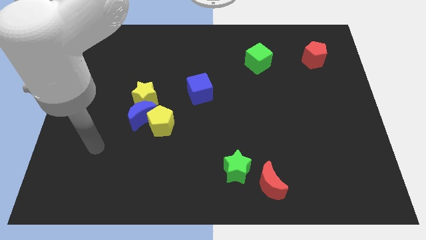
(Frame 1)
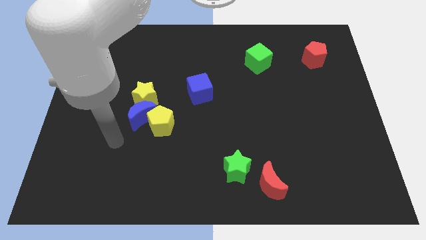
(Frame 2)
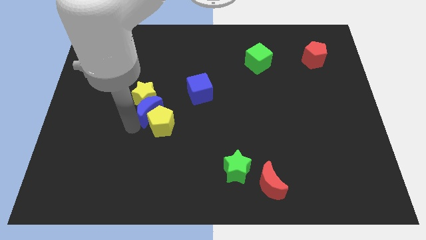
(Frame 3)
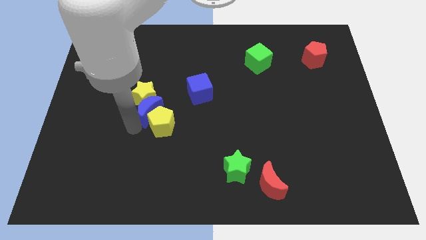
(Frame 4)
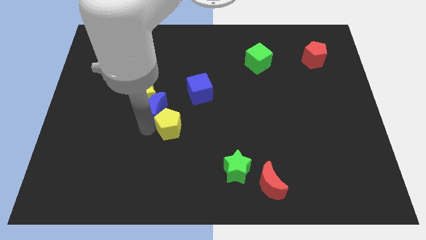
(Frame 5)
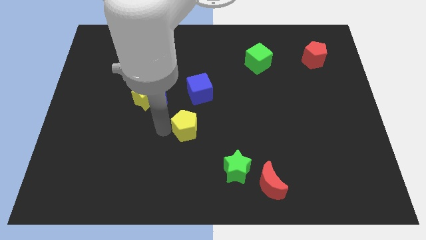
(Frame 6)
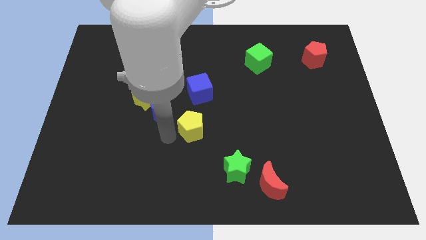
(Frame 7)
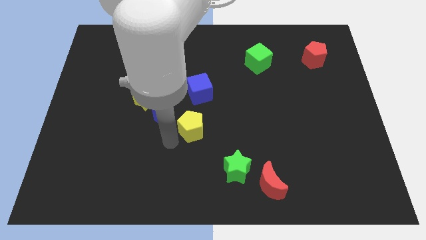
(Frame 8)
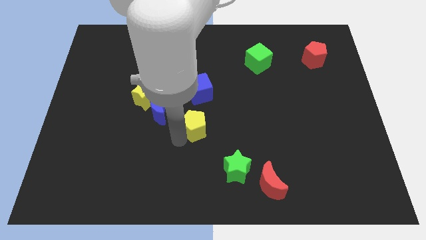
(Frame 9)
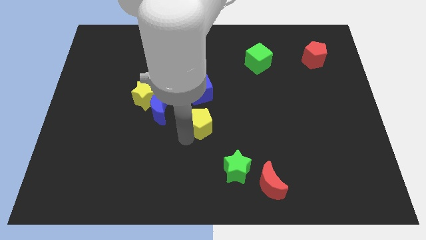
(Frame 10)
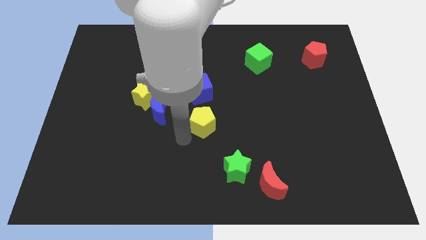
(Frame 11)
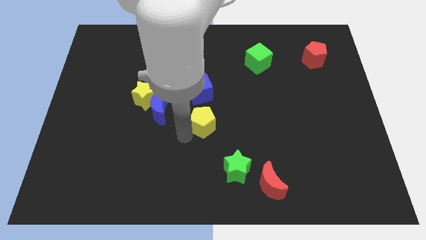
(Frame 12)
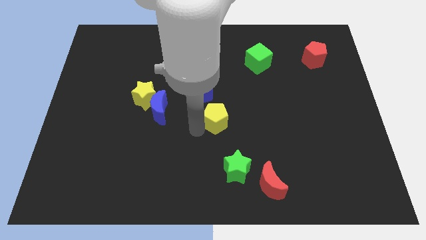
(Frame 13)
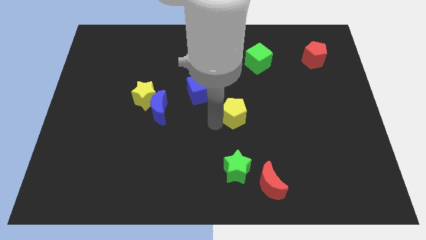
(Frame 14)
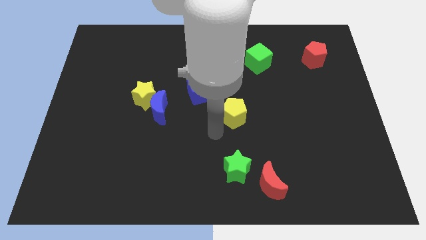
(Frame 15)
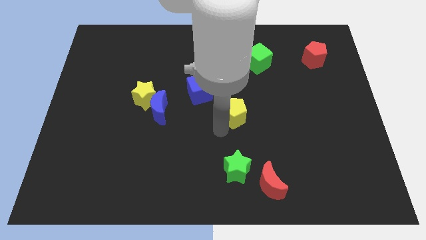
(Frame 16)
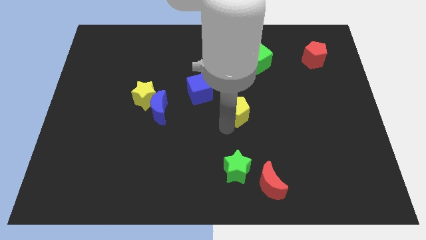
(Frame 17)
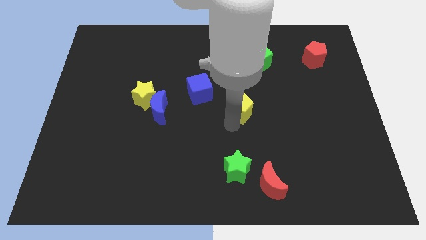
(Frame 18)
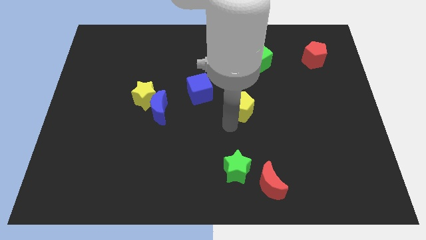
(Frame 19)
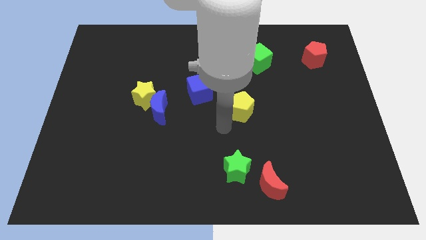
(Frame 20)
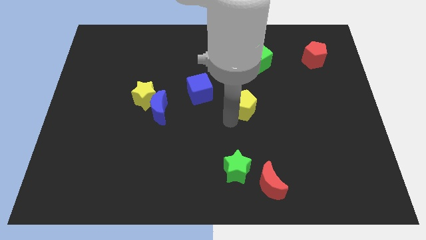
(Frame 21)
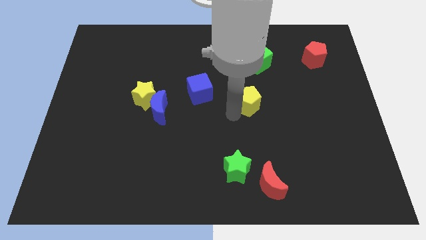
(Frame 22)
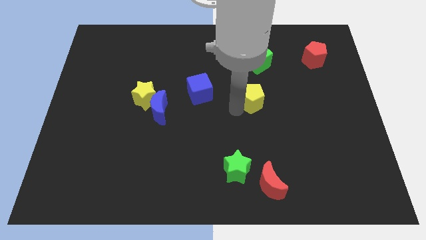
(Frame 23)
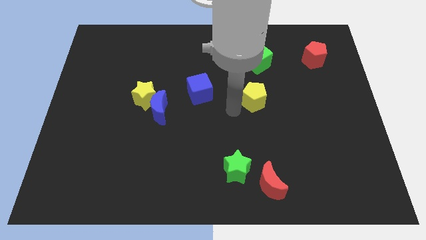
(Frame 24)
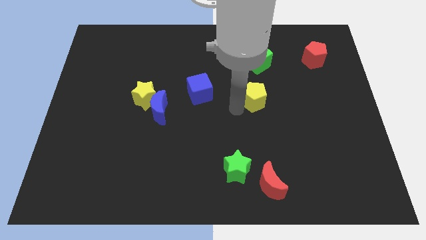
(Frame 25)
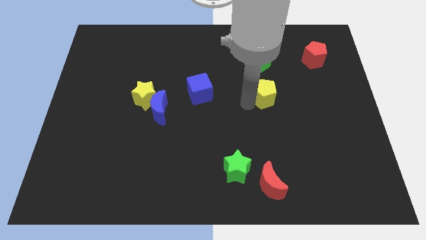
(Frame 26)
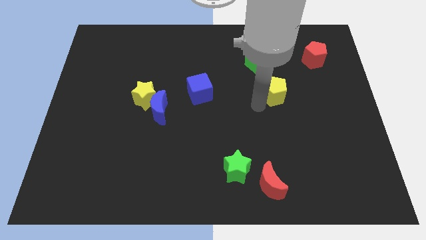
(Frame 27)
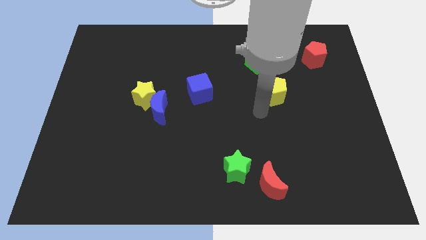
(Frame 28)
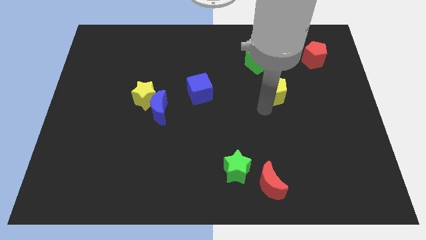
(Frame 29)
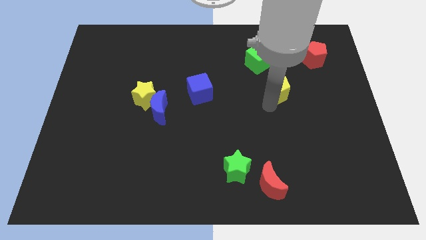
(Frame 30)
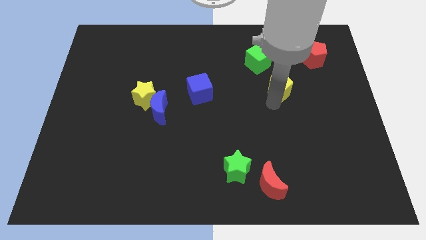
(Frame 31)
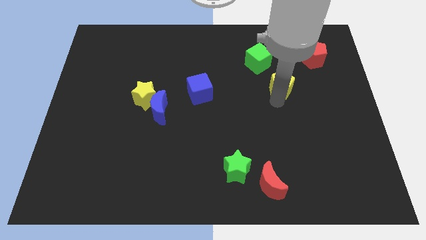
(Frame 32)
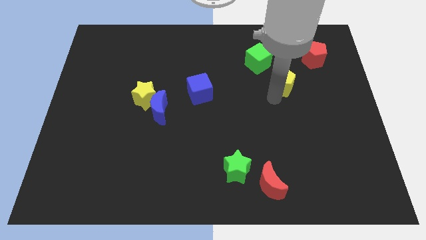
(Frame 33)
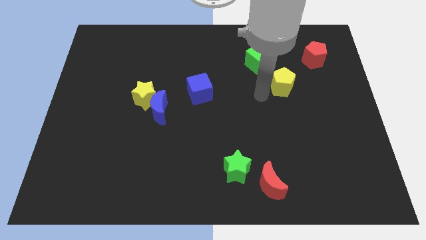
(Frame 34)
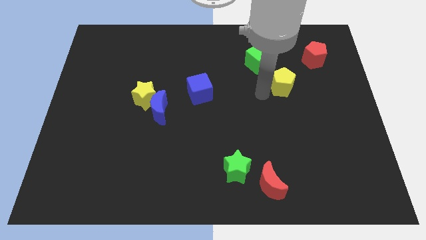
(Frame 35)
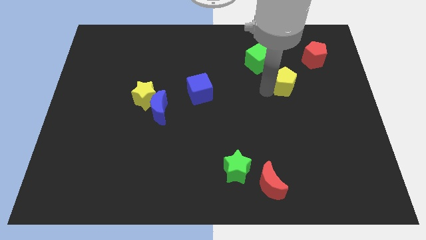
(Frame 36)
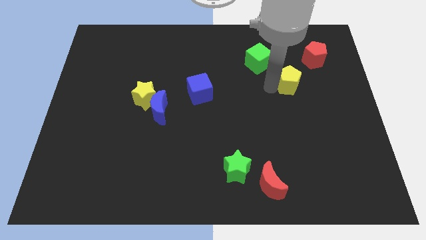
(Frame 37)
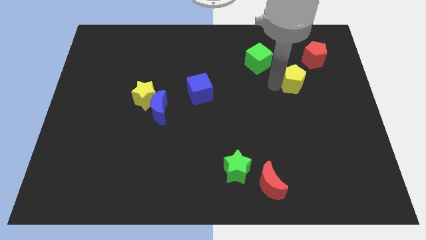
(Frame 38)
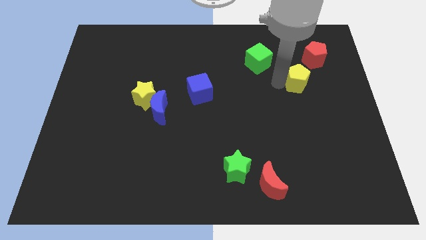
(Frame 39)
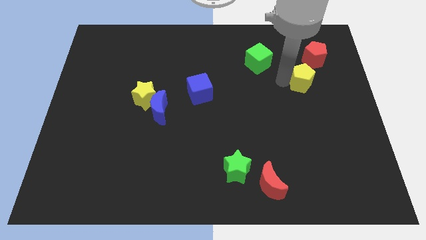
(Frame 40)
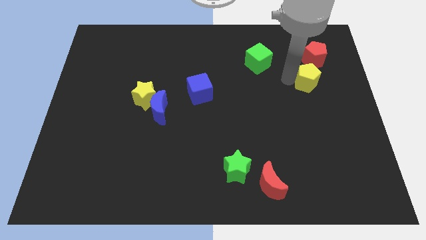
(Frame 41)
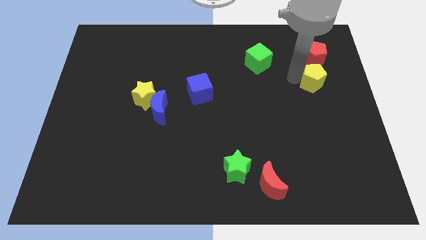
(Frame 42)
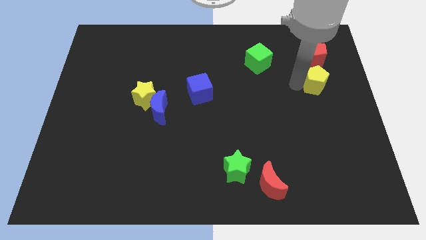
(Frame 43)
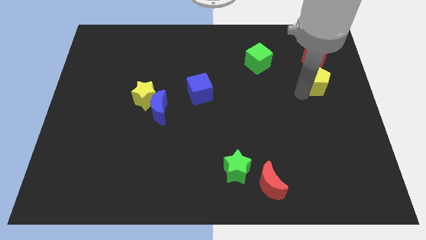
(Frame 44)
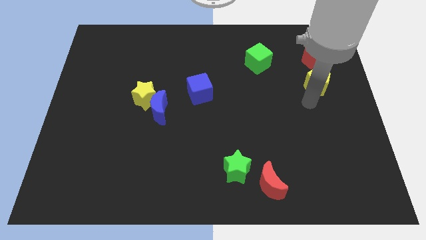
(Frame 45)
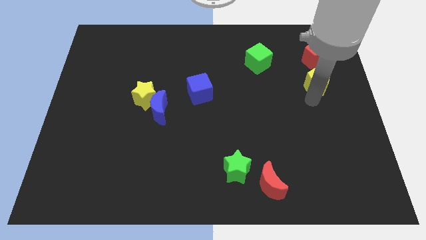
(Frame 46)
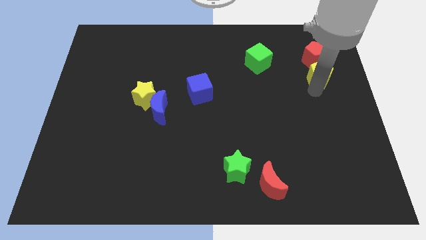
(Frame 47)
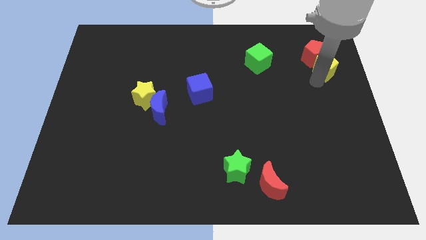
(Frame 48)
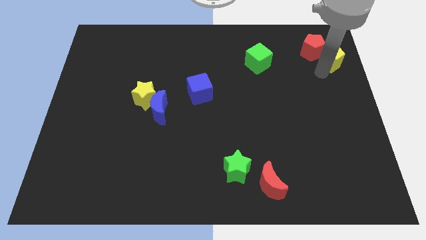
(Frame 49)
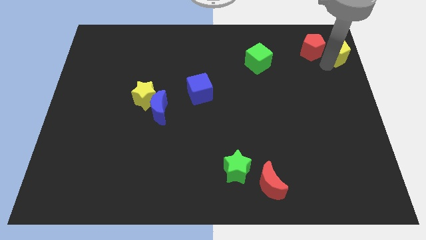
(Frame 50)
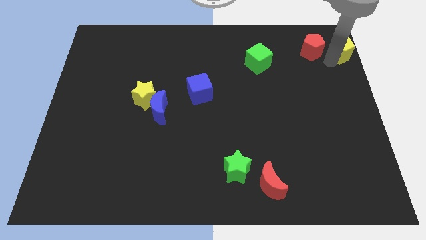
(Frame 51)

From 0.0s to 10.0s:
put the yellow pentagon to the top right corner

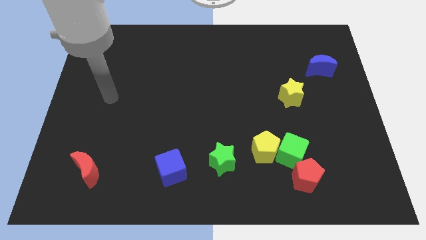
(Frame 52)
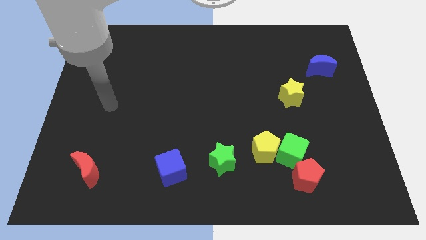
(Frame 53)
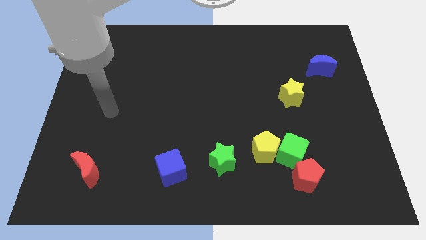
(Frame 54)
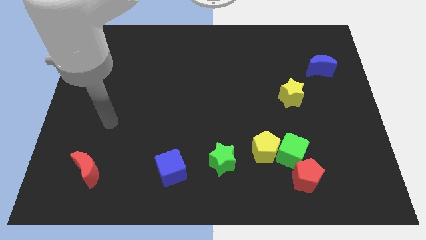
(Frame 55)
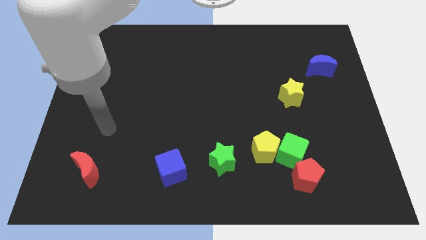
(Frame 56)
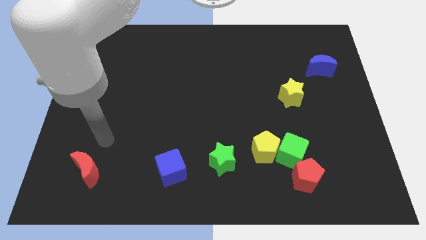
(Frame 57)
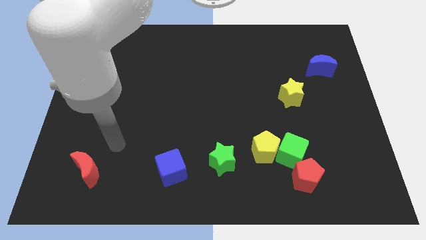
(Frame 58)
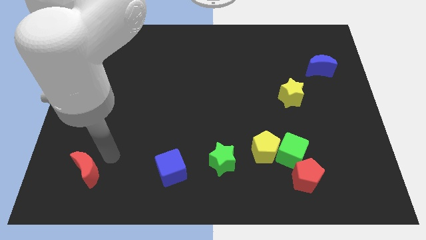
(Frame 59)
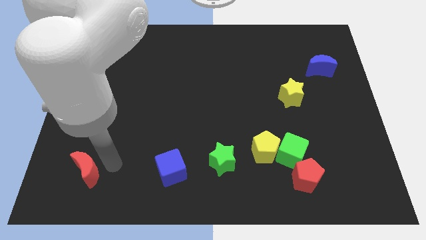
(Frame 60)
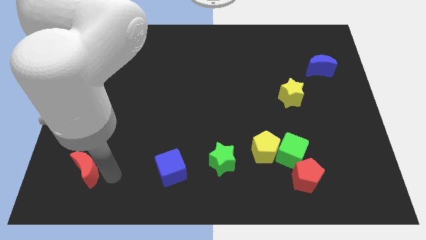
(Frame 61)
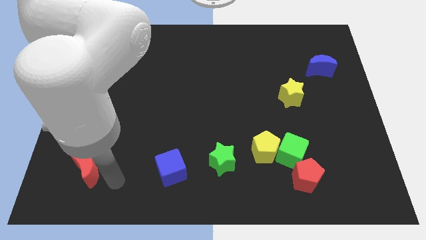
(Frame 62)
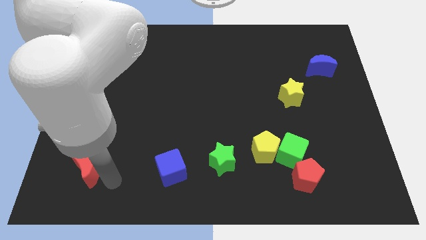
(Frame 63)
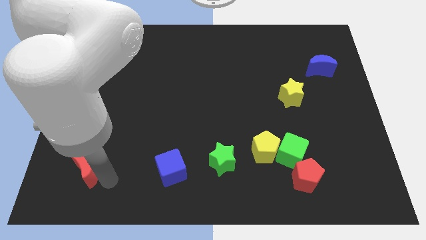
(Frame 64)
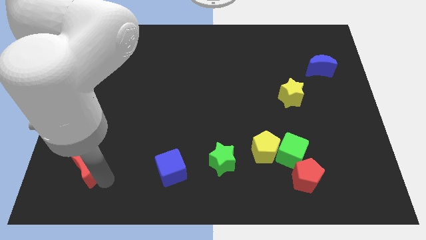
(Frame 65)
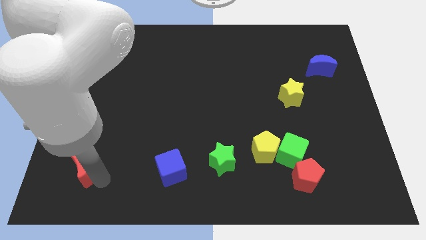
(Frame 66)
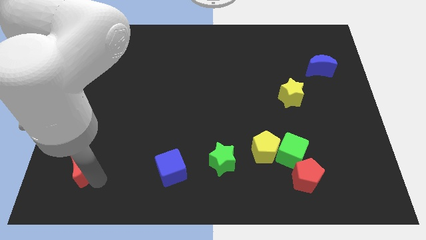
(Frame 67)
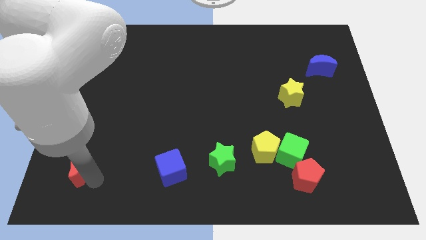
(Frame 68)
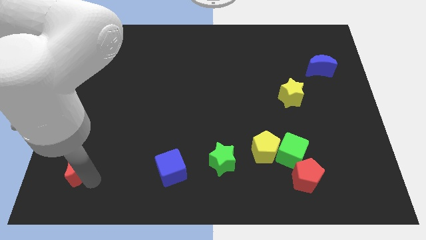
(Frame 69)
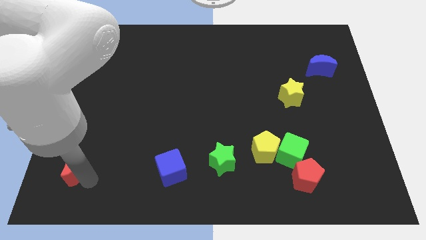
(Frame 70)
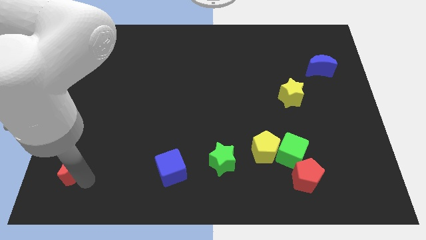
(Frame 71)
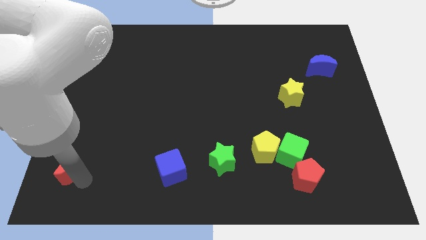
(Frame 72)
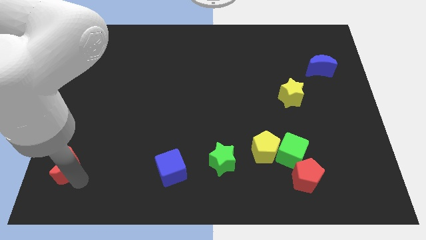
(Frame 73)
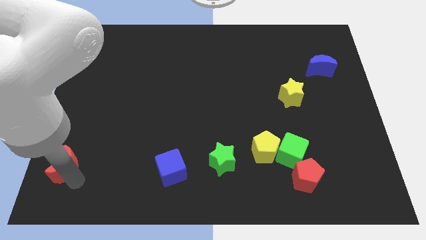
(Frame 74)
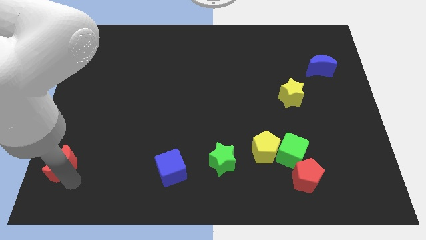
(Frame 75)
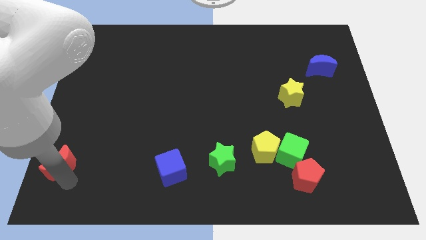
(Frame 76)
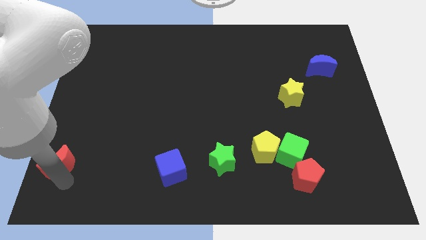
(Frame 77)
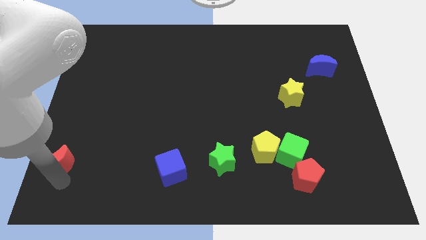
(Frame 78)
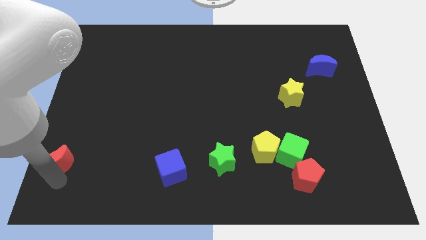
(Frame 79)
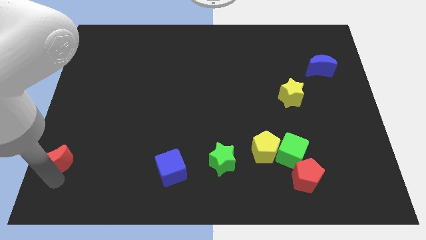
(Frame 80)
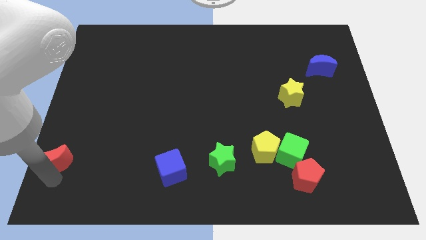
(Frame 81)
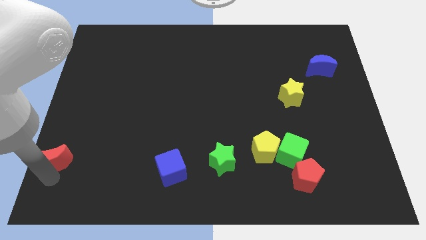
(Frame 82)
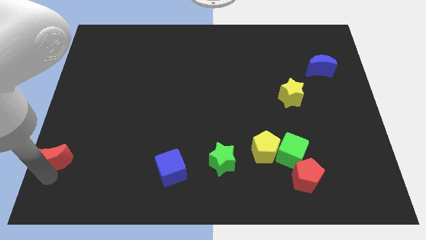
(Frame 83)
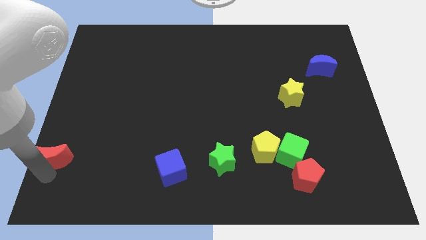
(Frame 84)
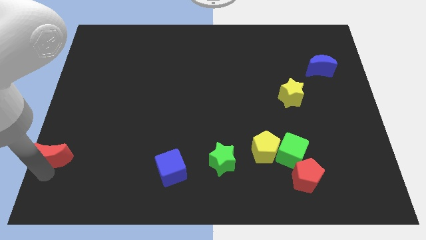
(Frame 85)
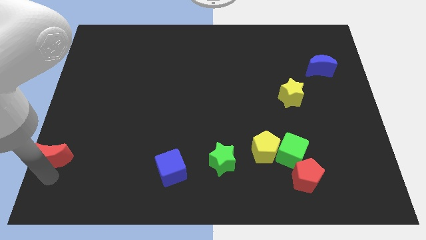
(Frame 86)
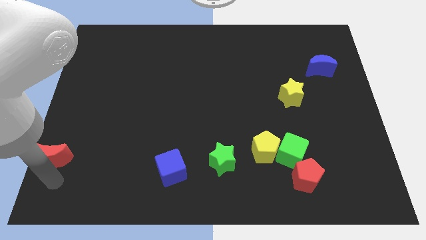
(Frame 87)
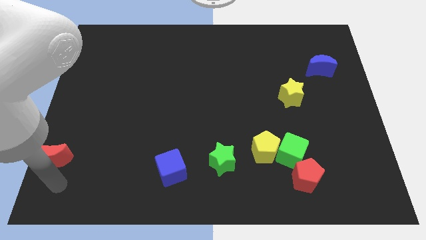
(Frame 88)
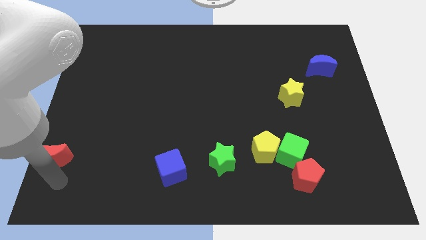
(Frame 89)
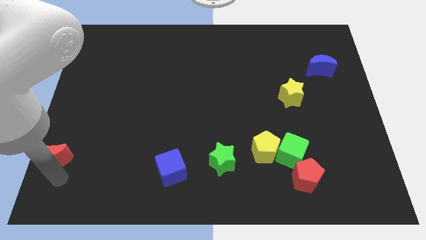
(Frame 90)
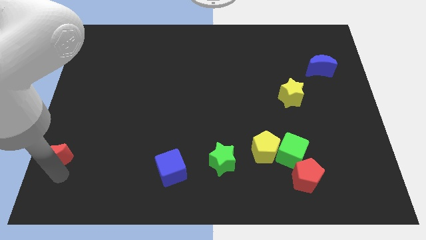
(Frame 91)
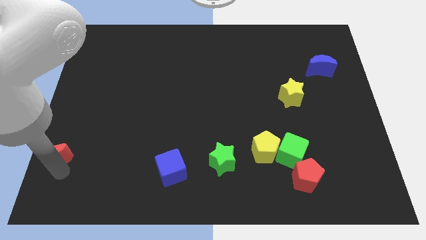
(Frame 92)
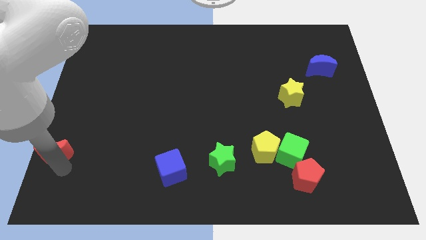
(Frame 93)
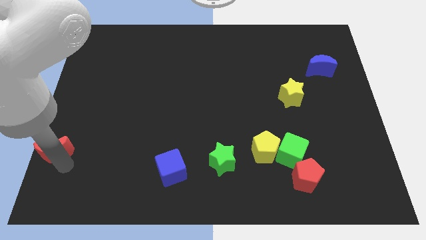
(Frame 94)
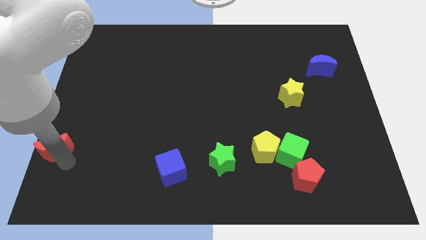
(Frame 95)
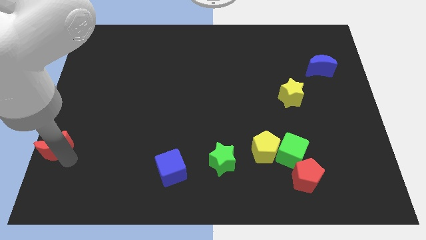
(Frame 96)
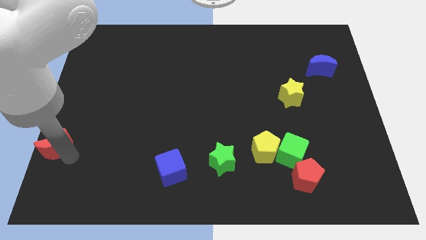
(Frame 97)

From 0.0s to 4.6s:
push the red moon to the left side of the board
